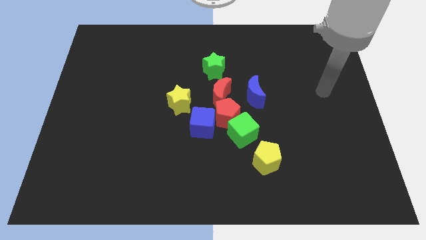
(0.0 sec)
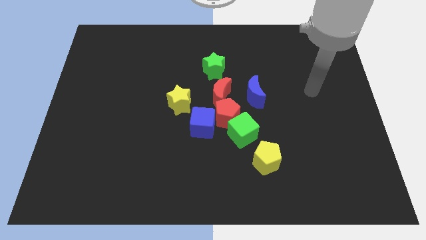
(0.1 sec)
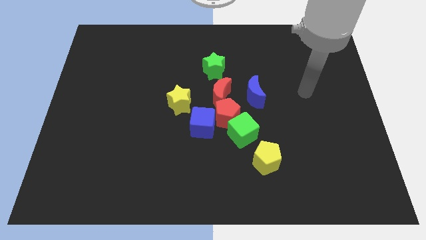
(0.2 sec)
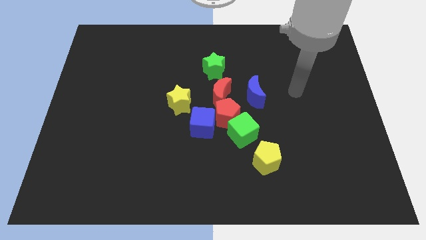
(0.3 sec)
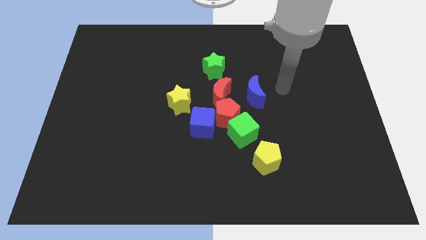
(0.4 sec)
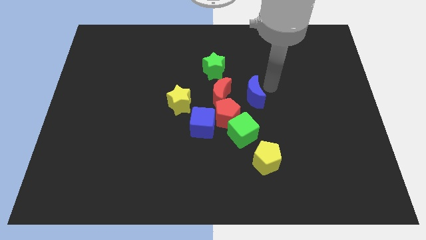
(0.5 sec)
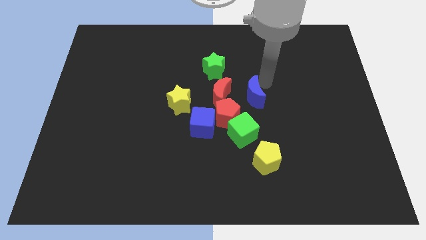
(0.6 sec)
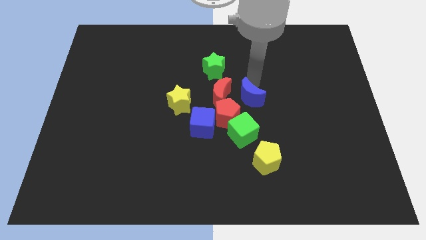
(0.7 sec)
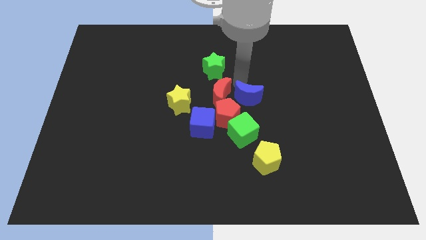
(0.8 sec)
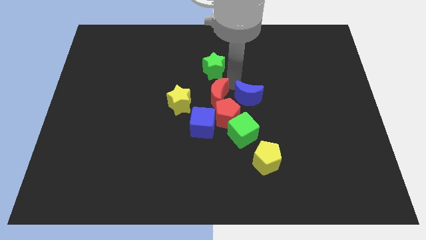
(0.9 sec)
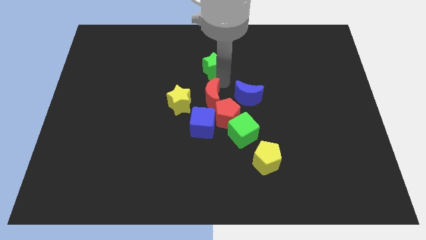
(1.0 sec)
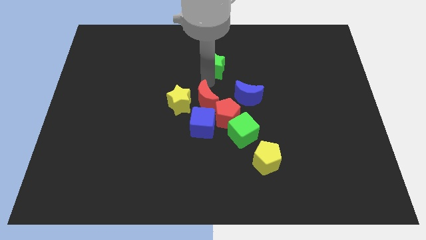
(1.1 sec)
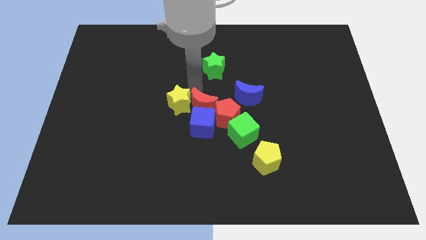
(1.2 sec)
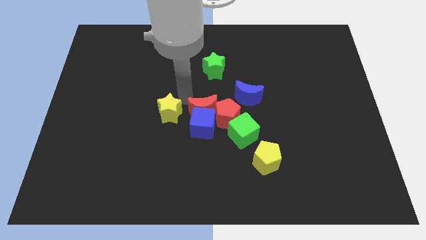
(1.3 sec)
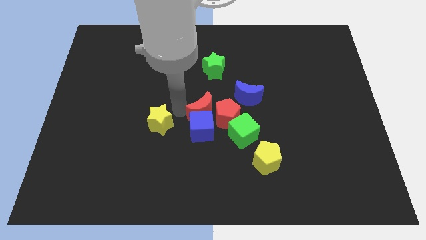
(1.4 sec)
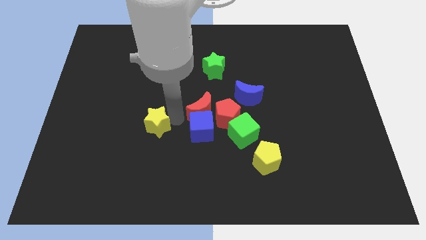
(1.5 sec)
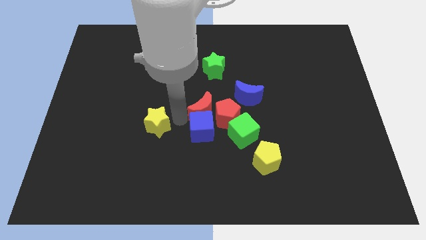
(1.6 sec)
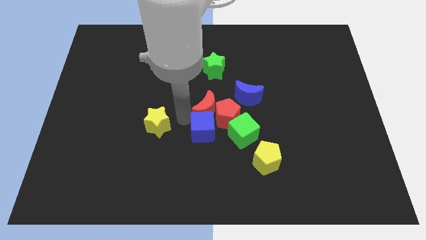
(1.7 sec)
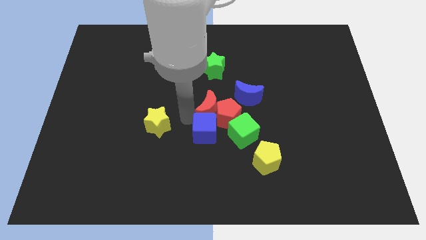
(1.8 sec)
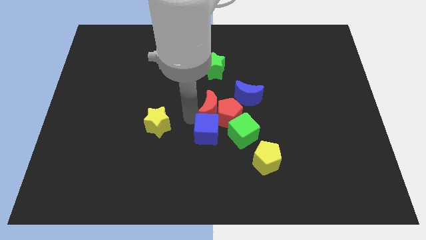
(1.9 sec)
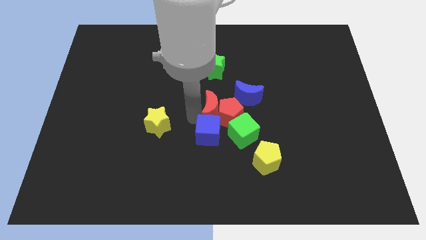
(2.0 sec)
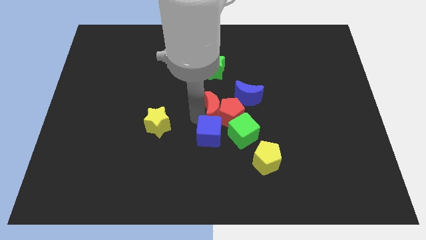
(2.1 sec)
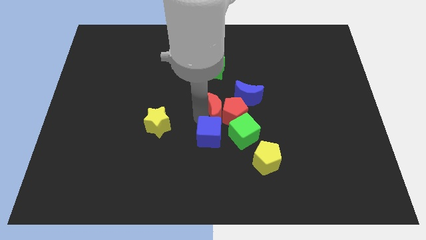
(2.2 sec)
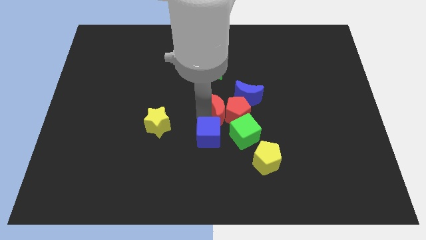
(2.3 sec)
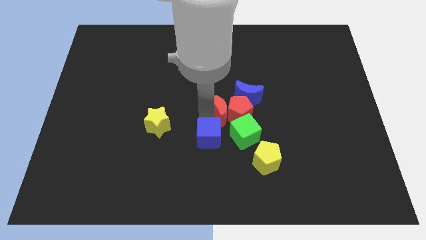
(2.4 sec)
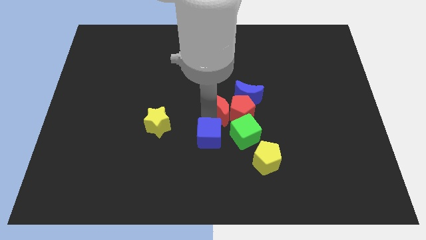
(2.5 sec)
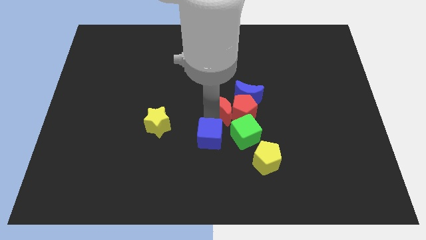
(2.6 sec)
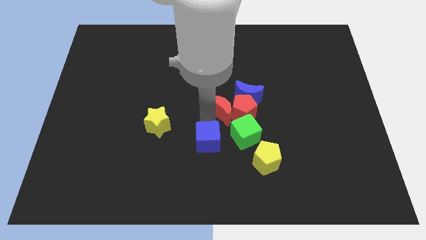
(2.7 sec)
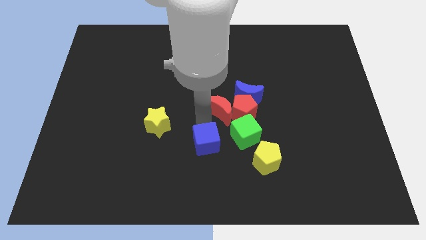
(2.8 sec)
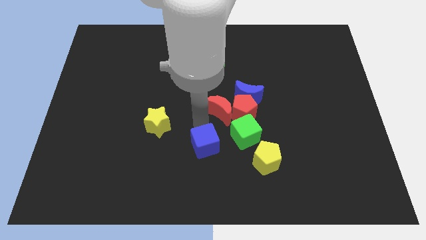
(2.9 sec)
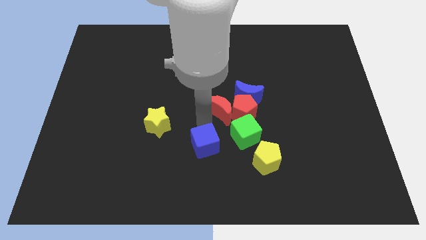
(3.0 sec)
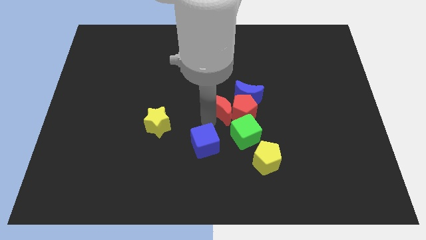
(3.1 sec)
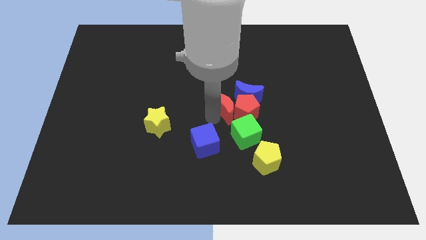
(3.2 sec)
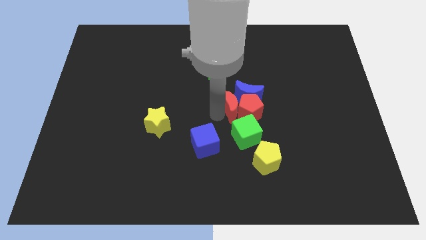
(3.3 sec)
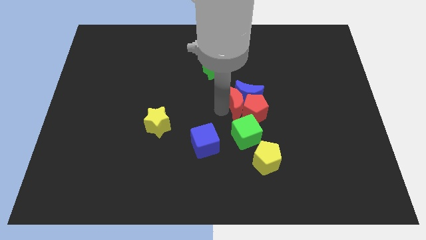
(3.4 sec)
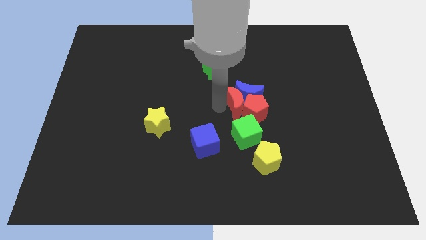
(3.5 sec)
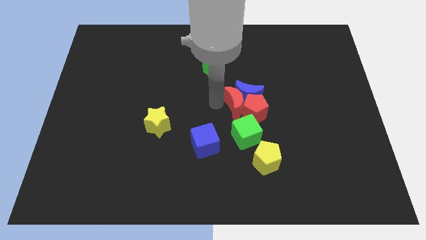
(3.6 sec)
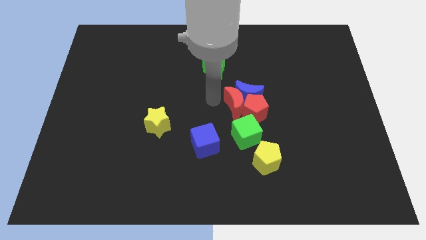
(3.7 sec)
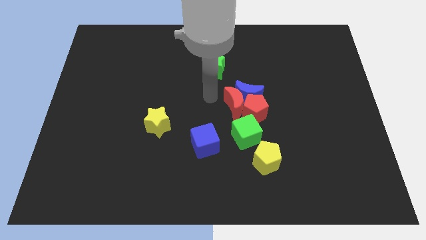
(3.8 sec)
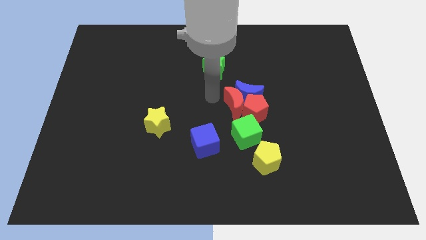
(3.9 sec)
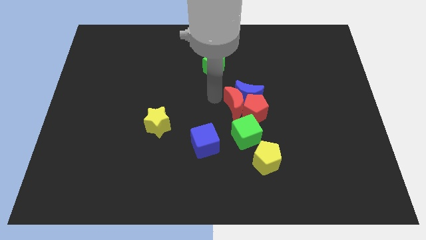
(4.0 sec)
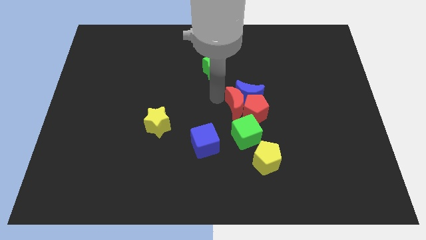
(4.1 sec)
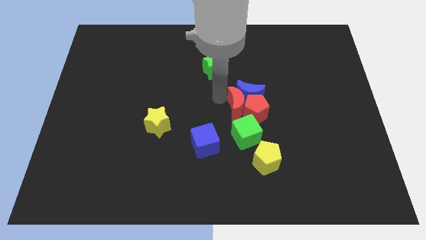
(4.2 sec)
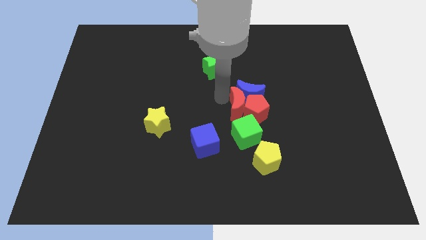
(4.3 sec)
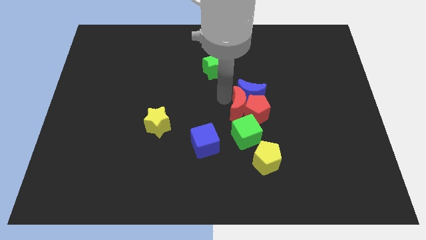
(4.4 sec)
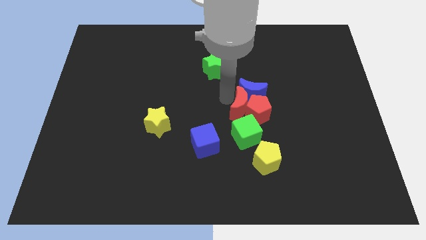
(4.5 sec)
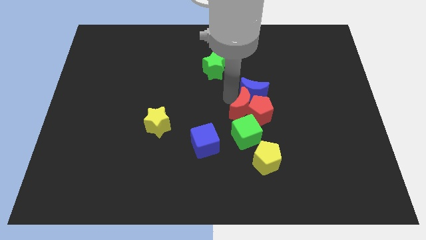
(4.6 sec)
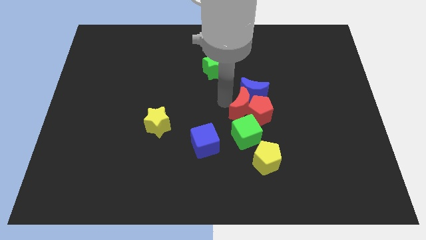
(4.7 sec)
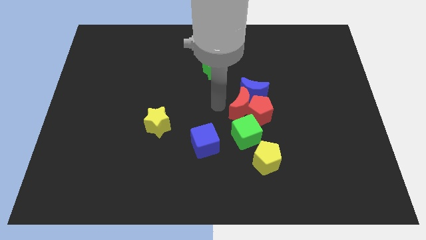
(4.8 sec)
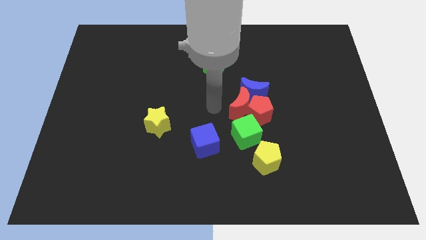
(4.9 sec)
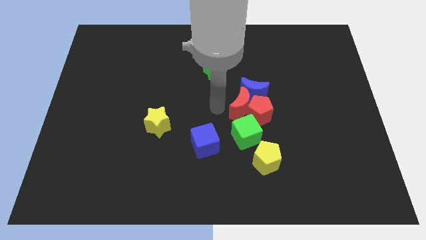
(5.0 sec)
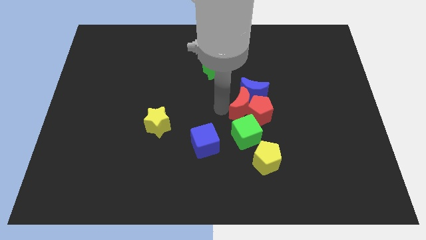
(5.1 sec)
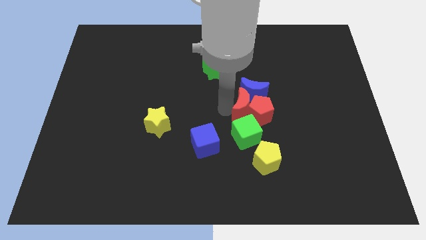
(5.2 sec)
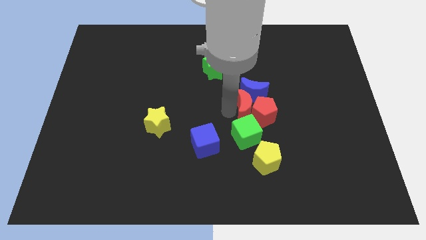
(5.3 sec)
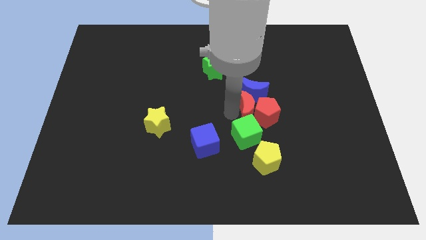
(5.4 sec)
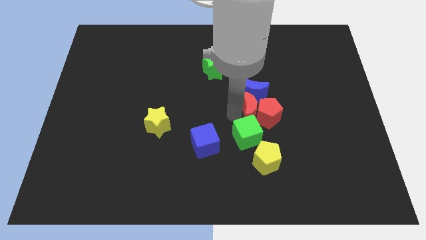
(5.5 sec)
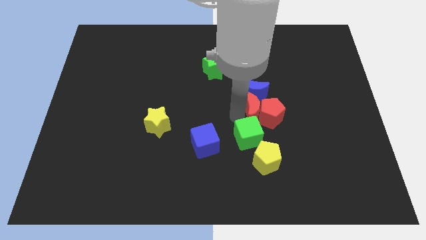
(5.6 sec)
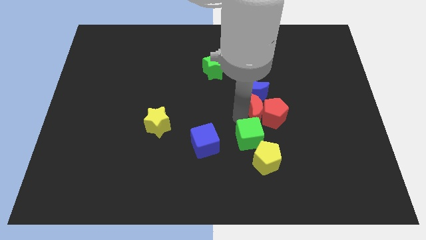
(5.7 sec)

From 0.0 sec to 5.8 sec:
slightly slide the red moon to the right

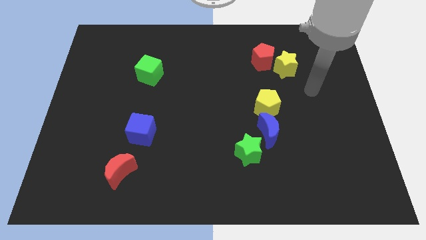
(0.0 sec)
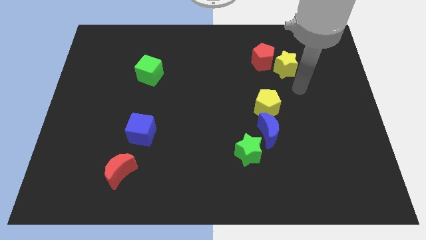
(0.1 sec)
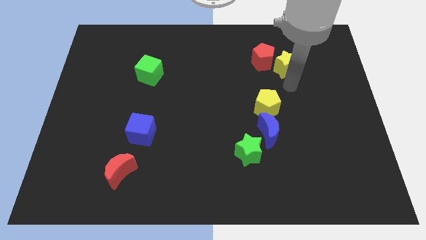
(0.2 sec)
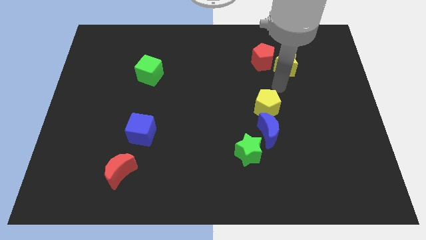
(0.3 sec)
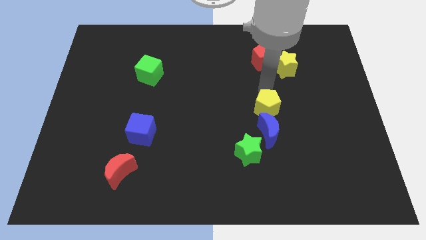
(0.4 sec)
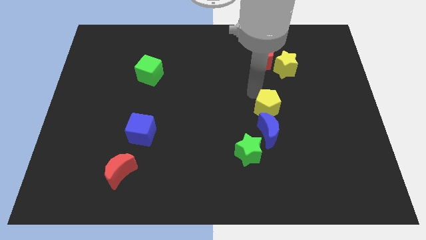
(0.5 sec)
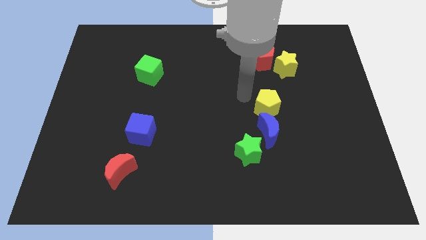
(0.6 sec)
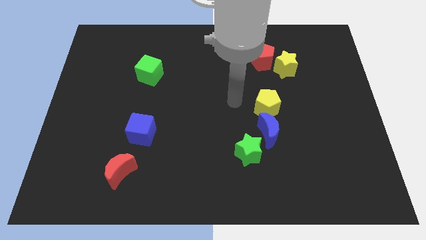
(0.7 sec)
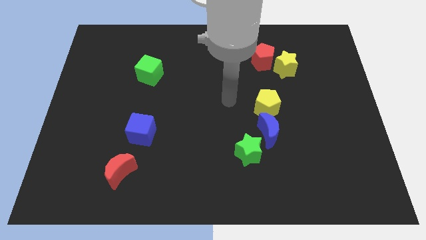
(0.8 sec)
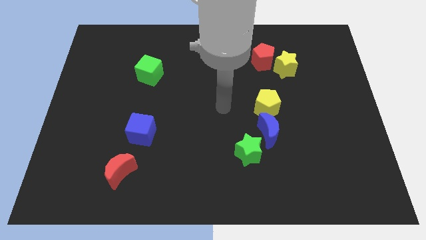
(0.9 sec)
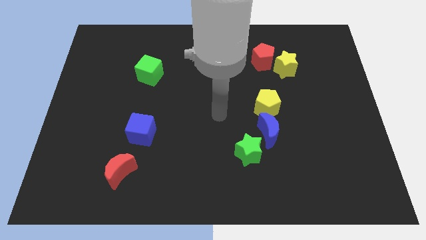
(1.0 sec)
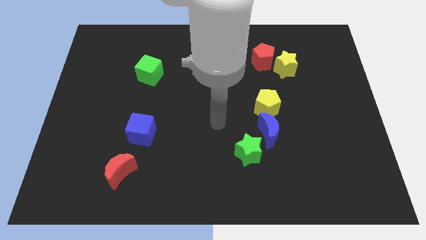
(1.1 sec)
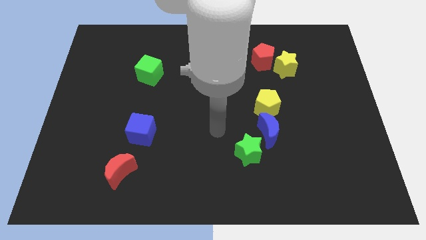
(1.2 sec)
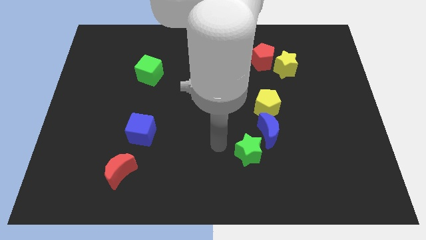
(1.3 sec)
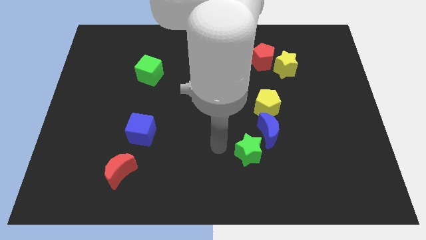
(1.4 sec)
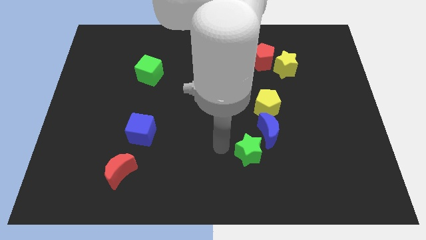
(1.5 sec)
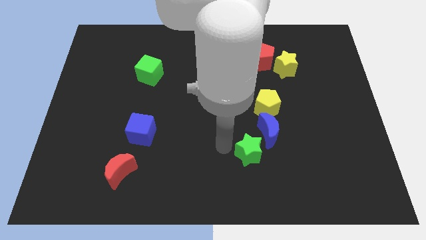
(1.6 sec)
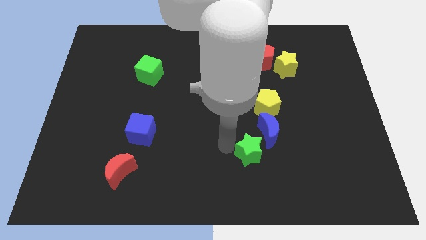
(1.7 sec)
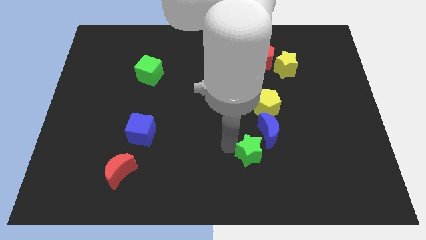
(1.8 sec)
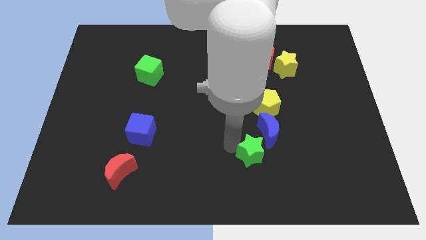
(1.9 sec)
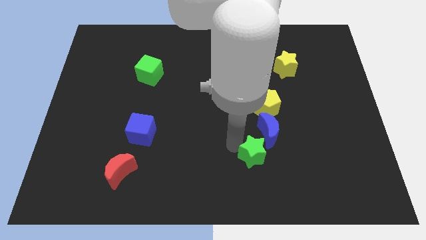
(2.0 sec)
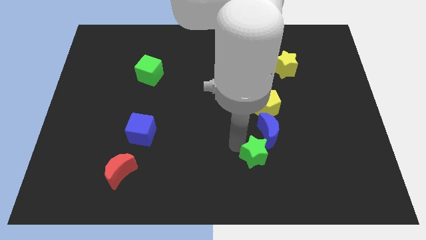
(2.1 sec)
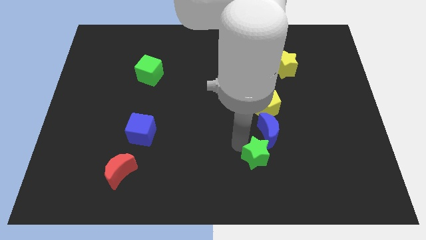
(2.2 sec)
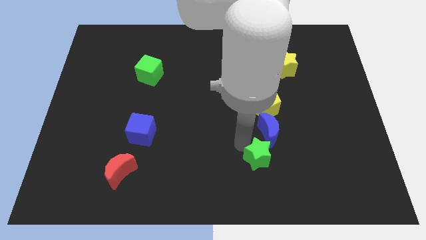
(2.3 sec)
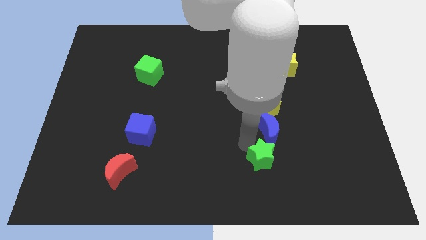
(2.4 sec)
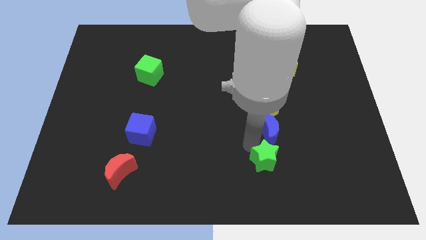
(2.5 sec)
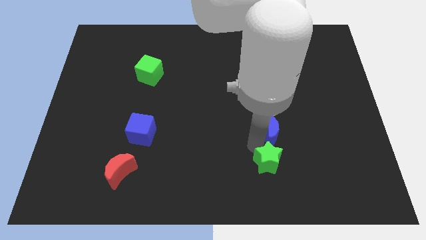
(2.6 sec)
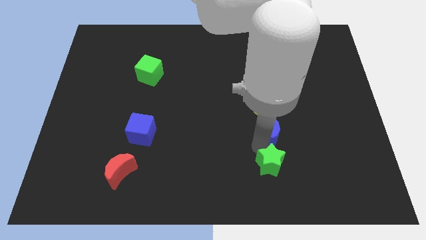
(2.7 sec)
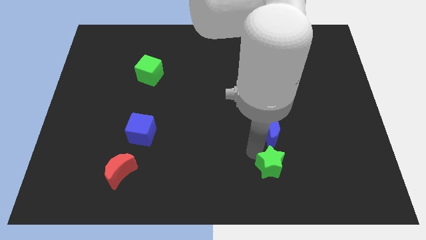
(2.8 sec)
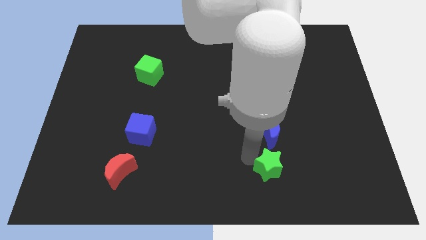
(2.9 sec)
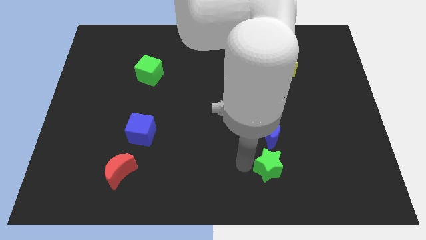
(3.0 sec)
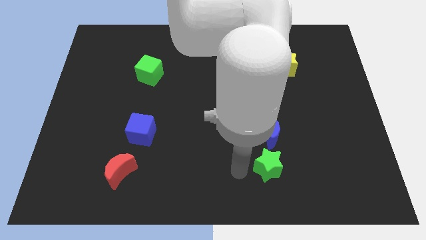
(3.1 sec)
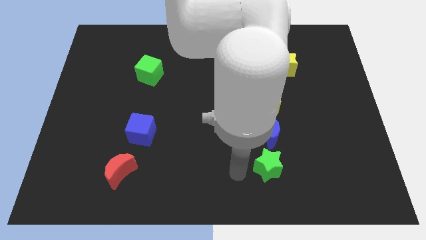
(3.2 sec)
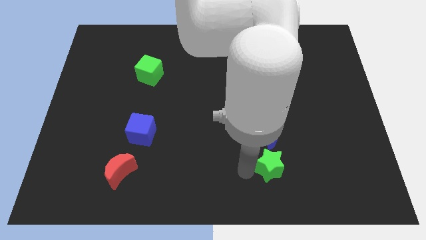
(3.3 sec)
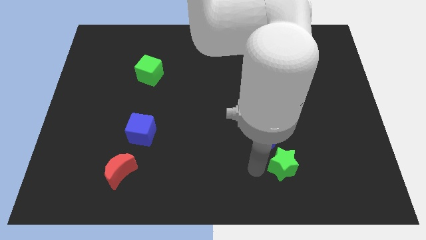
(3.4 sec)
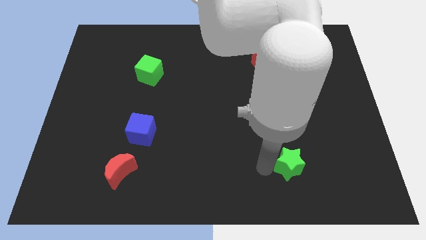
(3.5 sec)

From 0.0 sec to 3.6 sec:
slightly move the green star right
